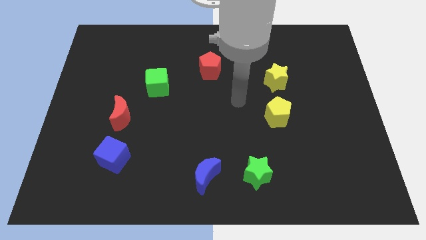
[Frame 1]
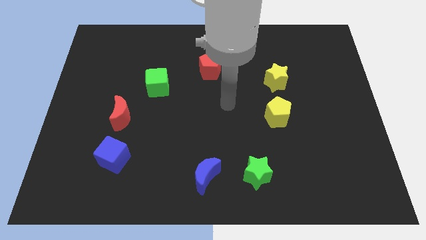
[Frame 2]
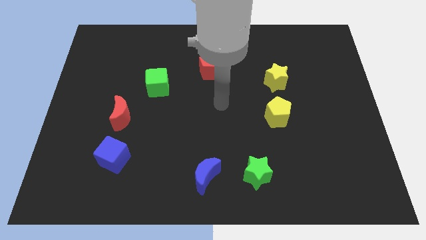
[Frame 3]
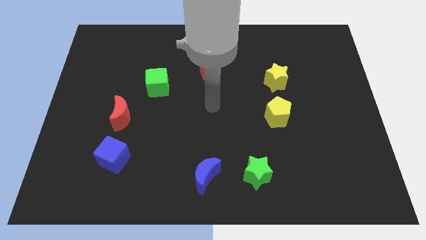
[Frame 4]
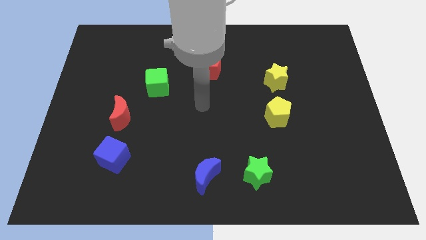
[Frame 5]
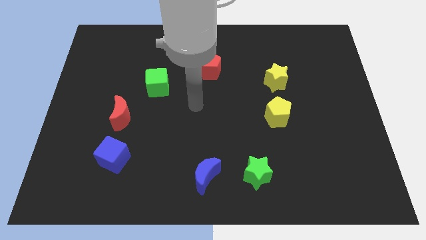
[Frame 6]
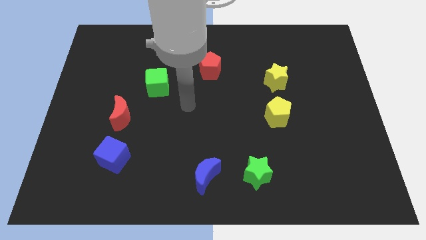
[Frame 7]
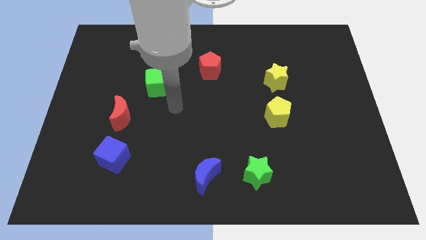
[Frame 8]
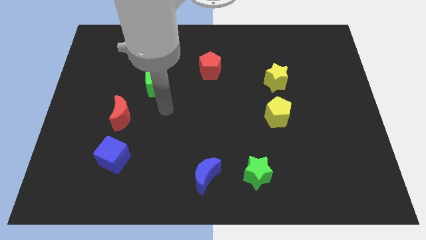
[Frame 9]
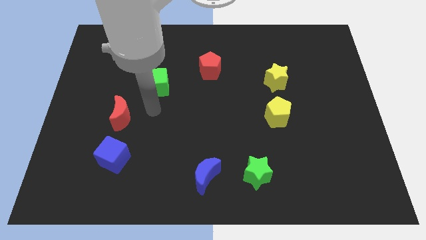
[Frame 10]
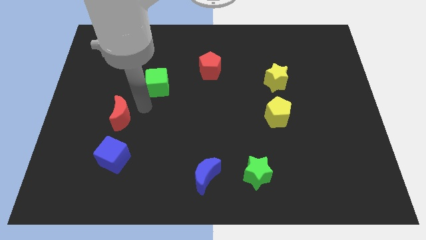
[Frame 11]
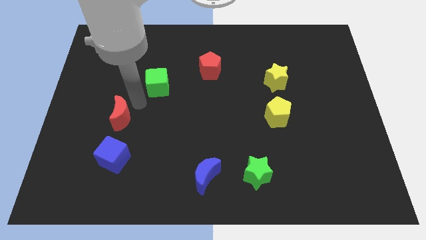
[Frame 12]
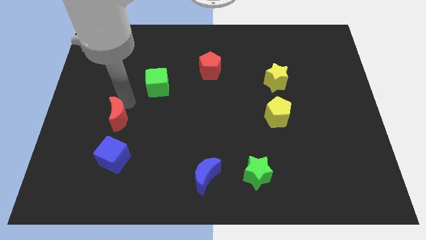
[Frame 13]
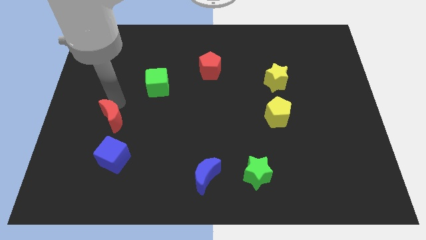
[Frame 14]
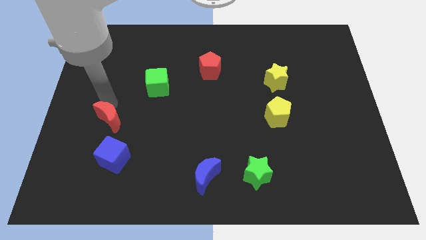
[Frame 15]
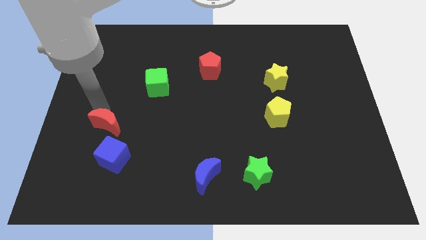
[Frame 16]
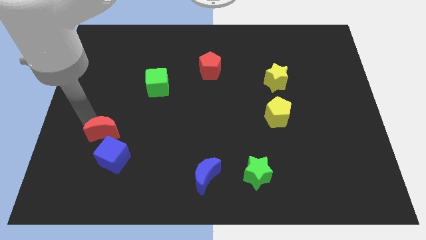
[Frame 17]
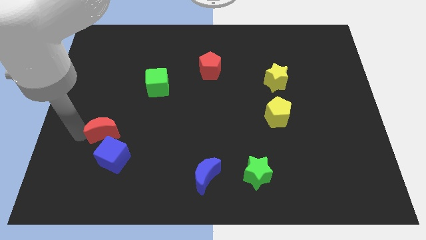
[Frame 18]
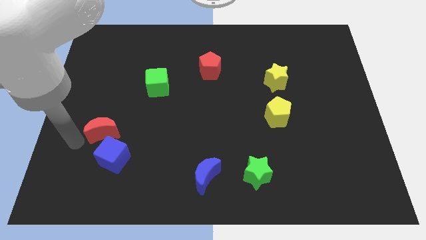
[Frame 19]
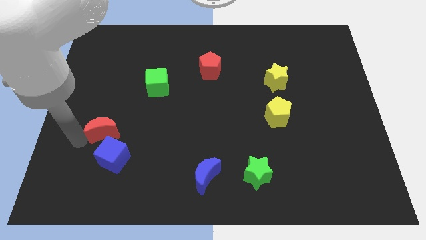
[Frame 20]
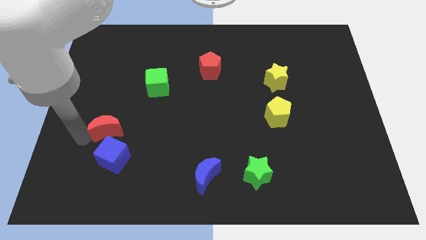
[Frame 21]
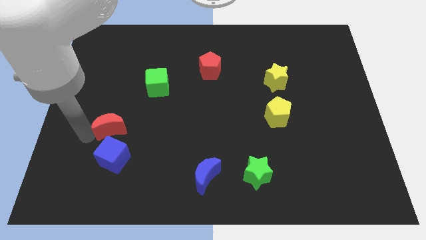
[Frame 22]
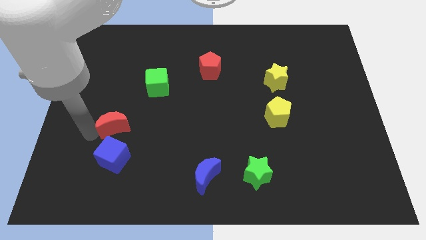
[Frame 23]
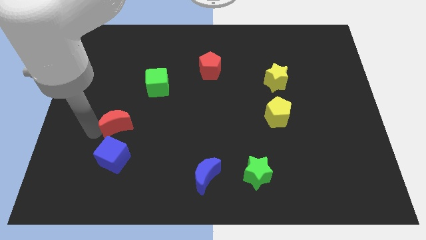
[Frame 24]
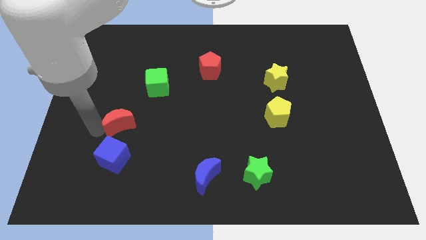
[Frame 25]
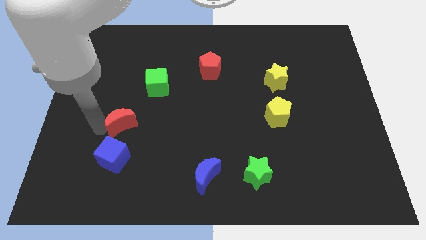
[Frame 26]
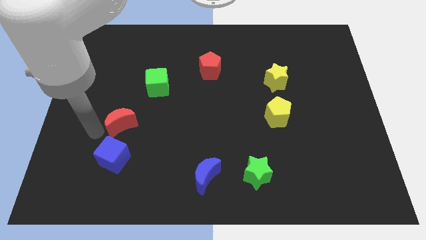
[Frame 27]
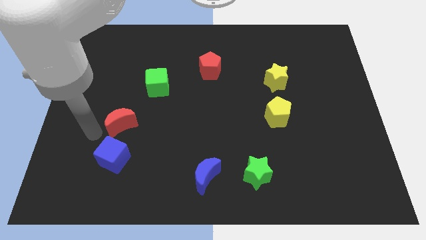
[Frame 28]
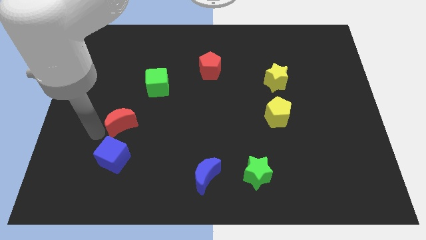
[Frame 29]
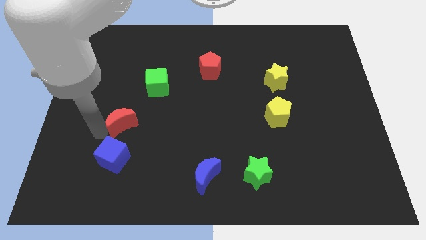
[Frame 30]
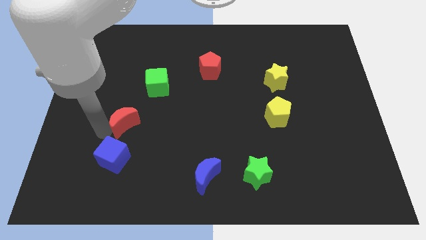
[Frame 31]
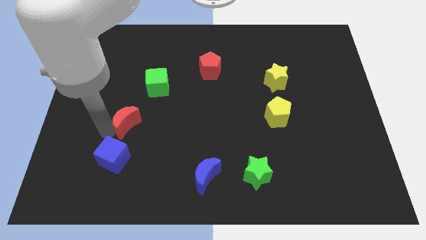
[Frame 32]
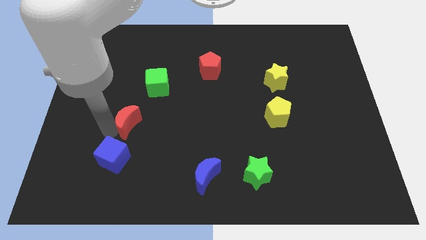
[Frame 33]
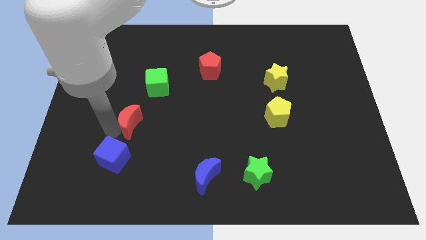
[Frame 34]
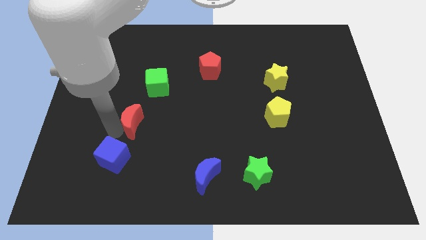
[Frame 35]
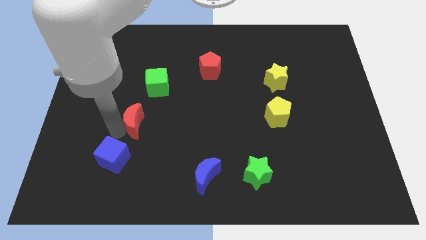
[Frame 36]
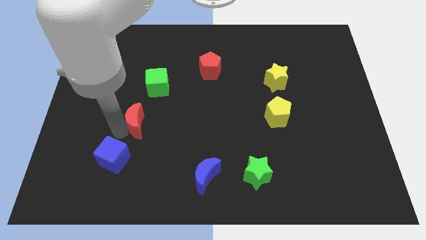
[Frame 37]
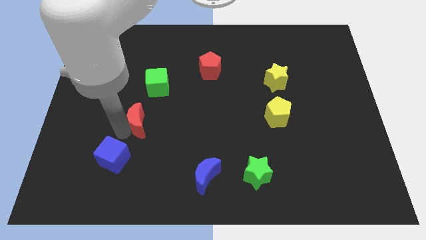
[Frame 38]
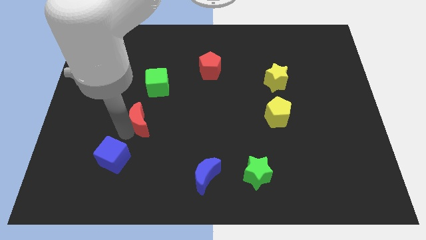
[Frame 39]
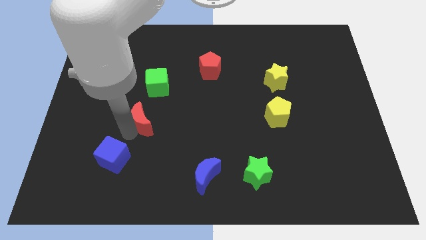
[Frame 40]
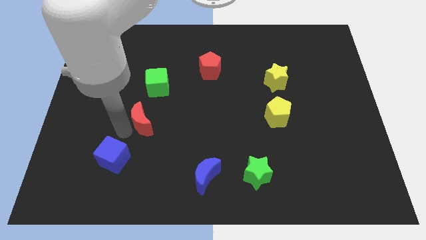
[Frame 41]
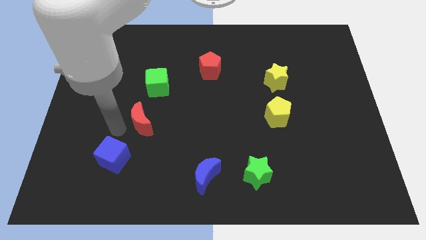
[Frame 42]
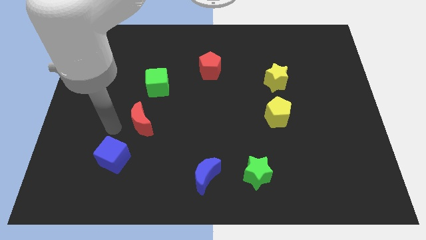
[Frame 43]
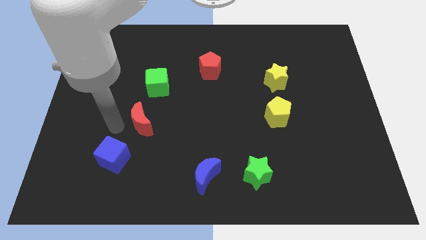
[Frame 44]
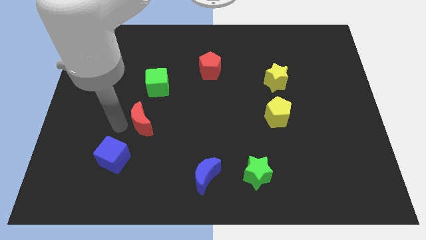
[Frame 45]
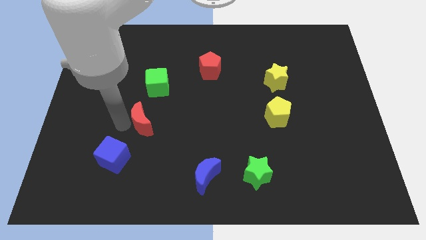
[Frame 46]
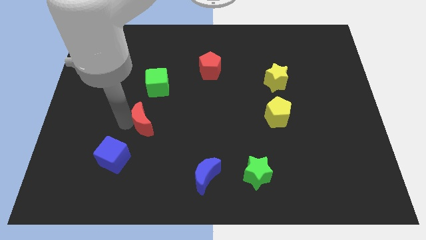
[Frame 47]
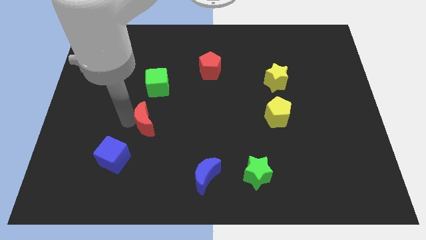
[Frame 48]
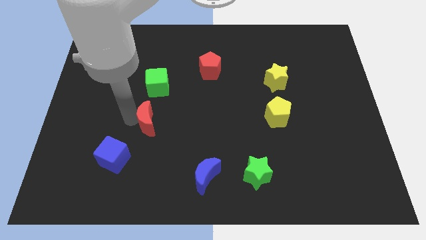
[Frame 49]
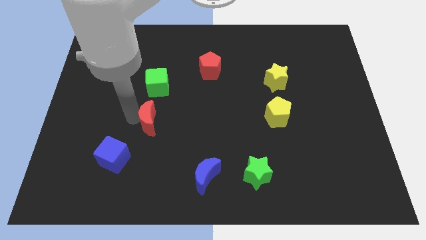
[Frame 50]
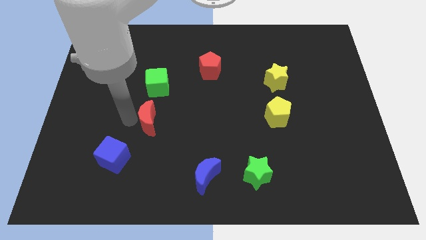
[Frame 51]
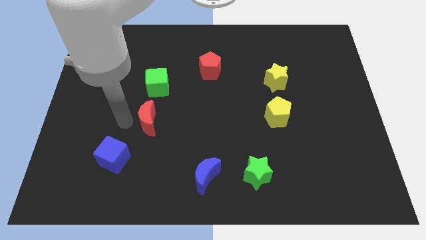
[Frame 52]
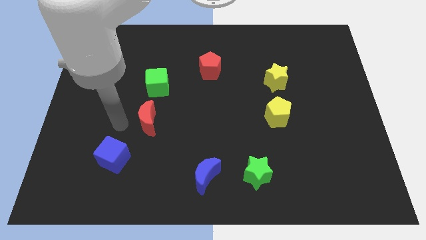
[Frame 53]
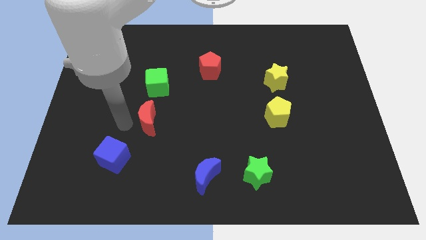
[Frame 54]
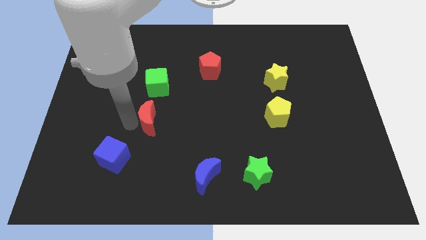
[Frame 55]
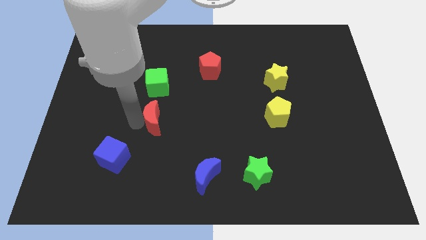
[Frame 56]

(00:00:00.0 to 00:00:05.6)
push the red moon right somewhat

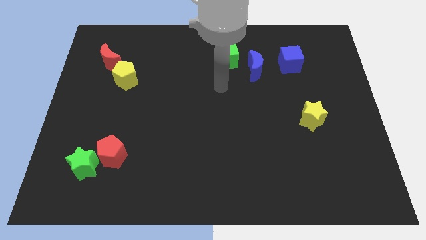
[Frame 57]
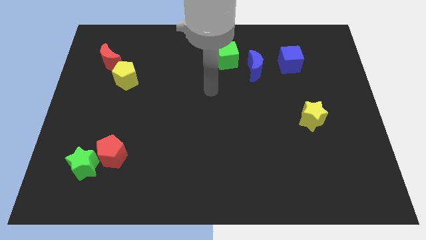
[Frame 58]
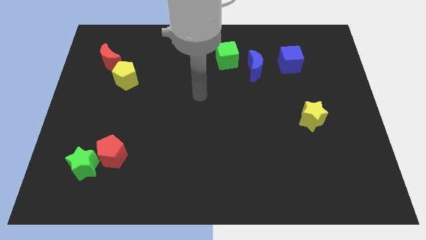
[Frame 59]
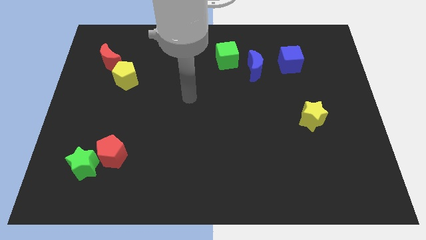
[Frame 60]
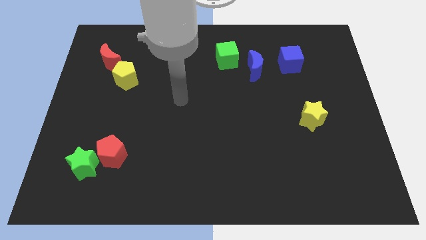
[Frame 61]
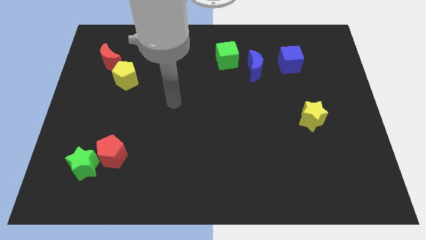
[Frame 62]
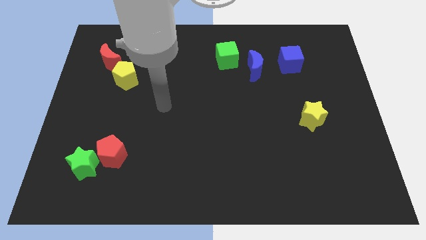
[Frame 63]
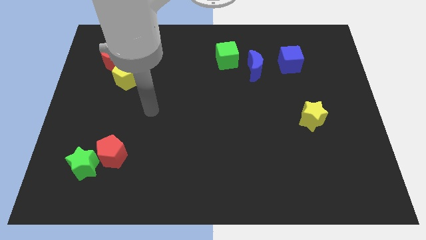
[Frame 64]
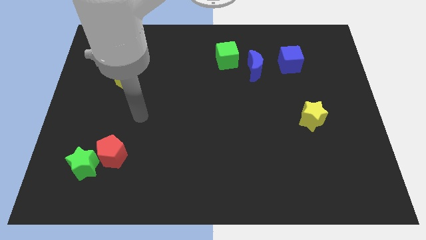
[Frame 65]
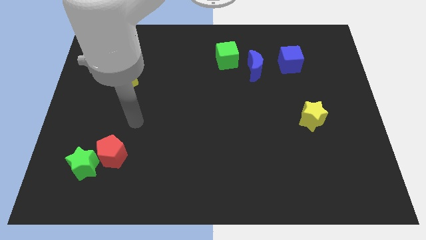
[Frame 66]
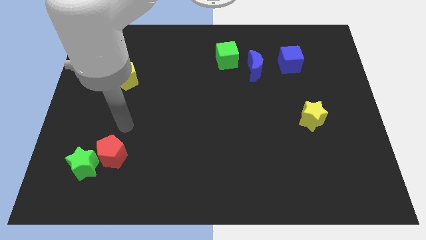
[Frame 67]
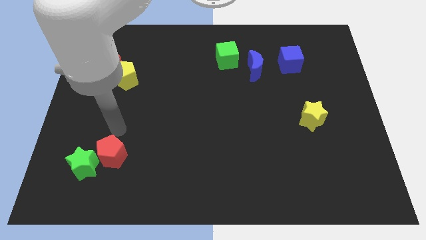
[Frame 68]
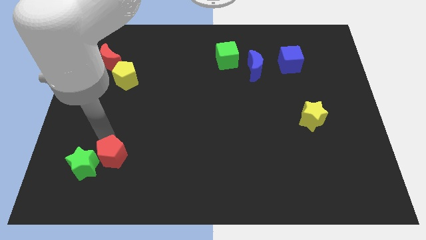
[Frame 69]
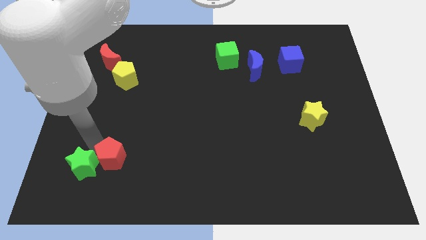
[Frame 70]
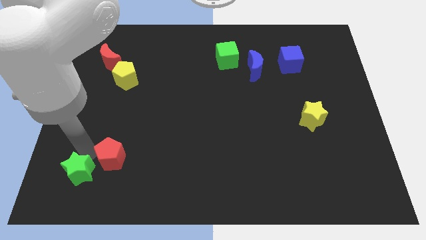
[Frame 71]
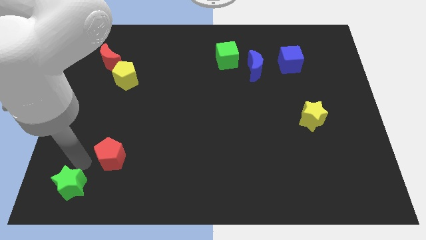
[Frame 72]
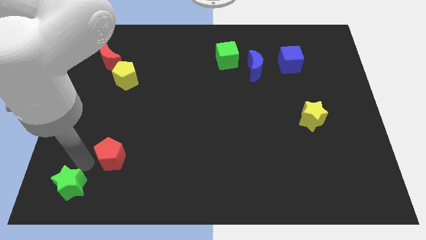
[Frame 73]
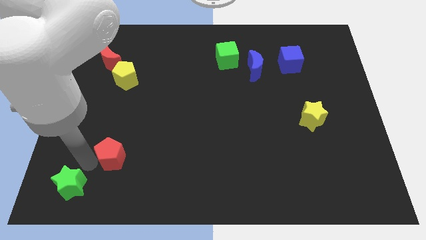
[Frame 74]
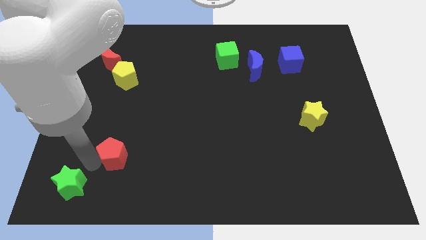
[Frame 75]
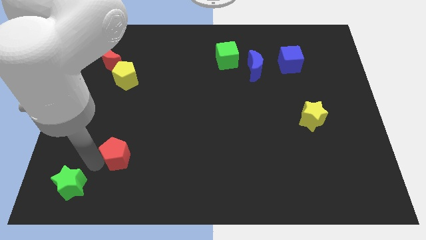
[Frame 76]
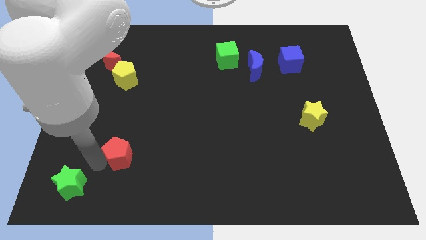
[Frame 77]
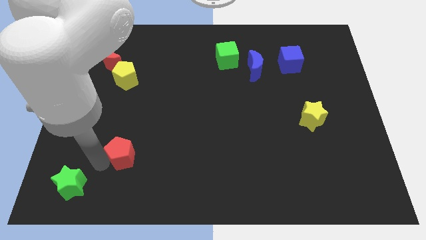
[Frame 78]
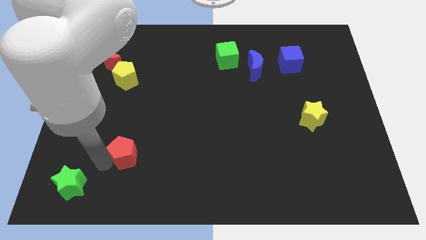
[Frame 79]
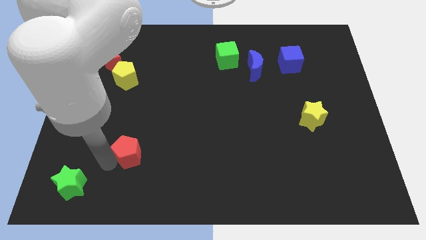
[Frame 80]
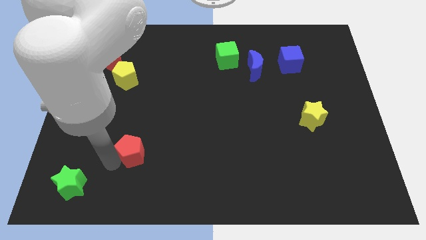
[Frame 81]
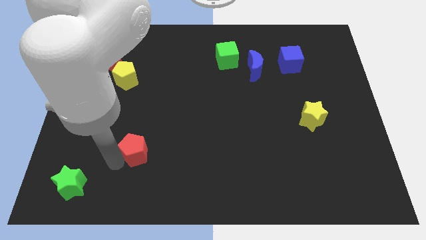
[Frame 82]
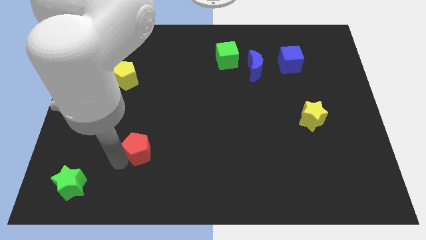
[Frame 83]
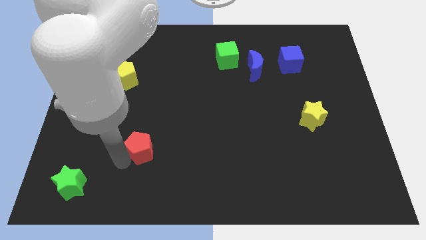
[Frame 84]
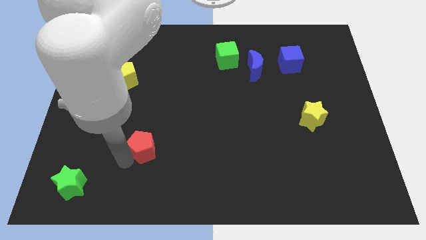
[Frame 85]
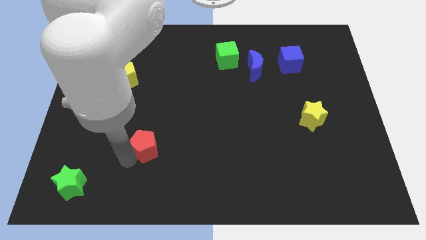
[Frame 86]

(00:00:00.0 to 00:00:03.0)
slightly move the red pentagon to the right
